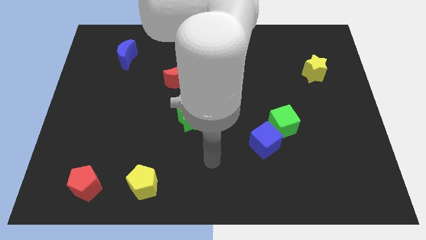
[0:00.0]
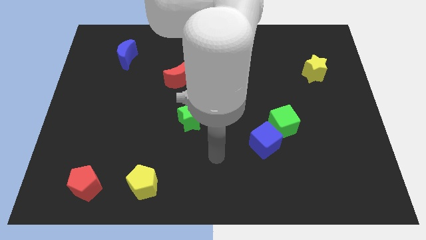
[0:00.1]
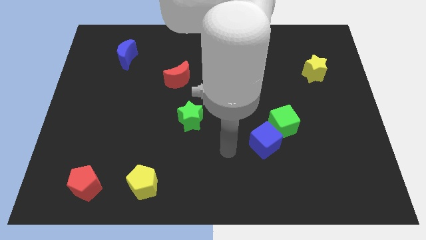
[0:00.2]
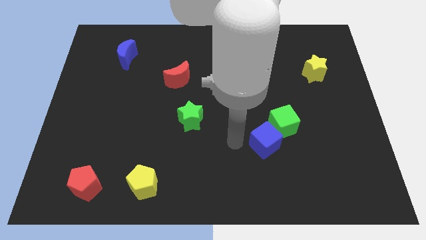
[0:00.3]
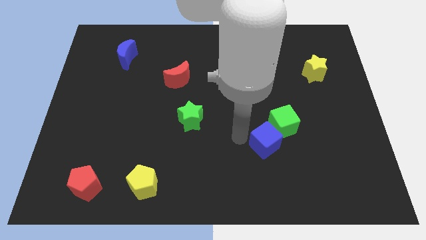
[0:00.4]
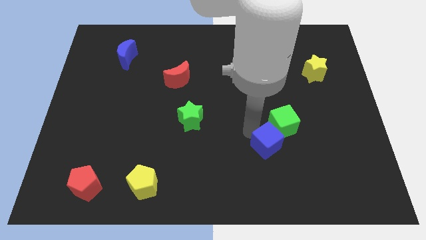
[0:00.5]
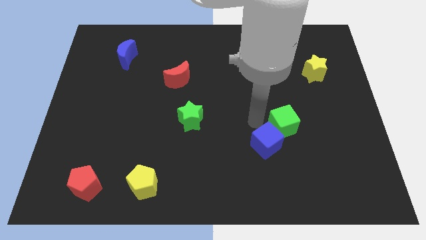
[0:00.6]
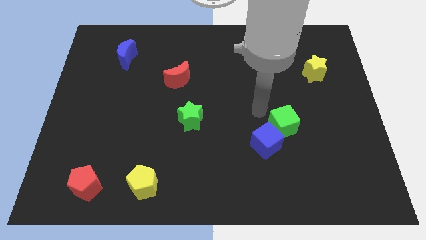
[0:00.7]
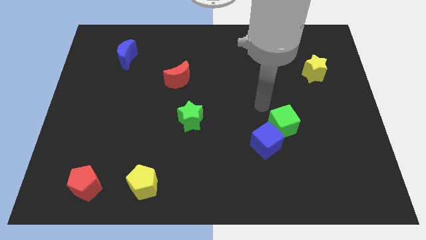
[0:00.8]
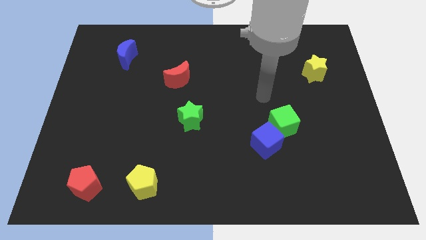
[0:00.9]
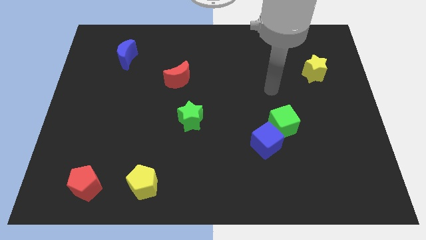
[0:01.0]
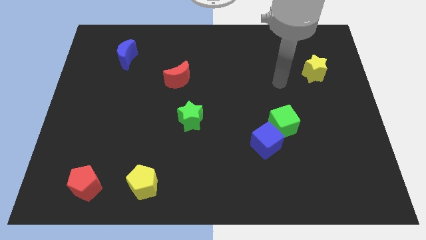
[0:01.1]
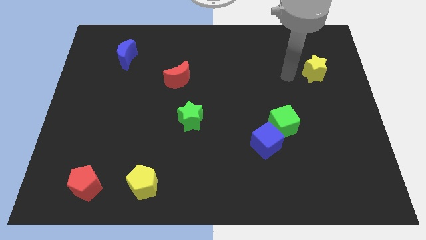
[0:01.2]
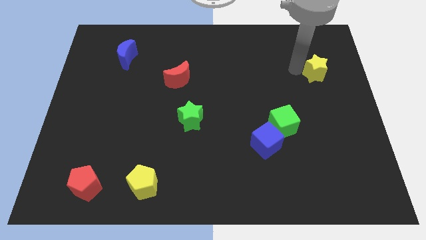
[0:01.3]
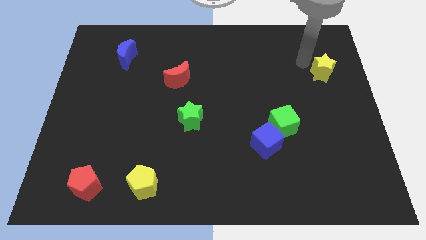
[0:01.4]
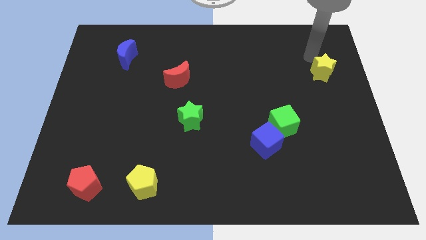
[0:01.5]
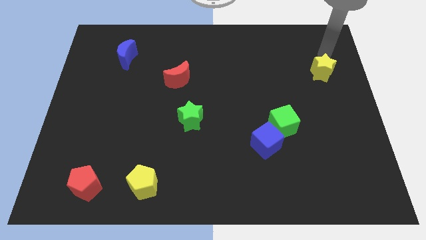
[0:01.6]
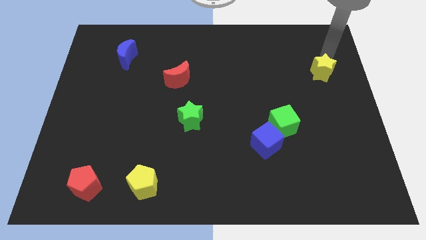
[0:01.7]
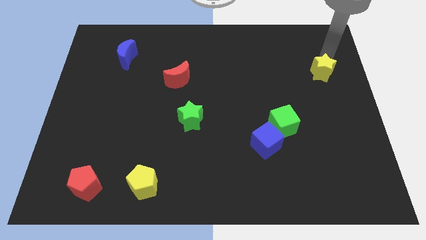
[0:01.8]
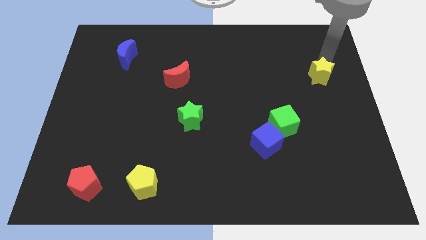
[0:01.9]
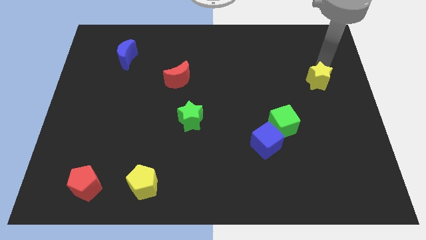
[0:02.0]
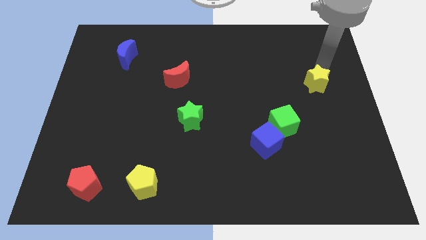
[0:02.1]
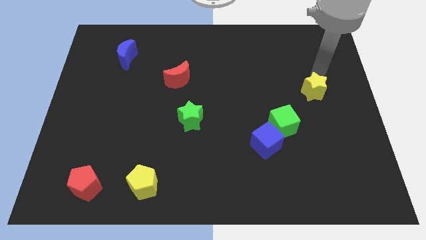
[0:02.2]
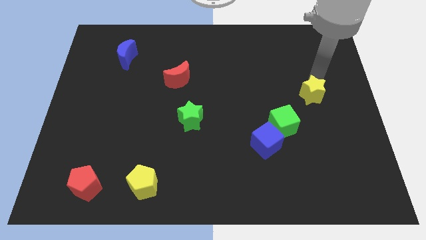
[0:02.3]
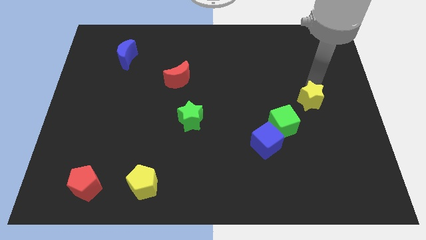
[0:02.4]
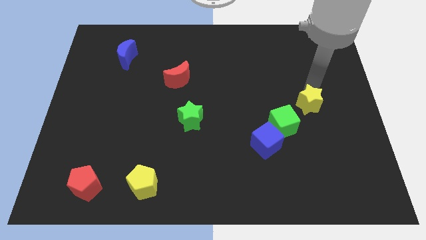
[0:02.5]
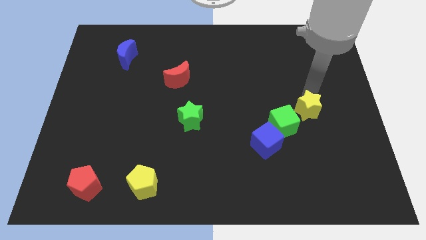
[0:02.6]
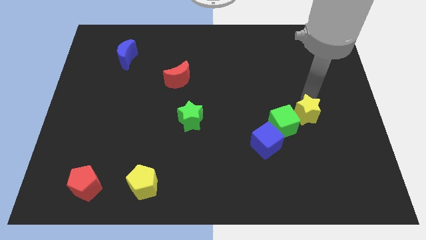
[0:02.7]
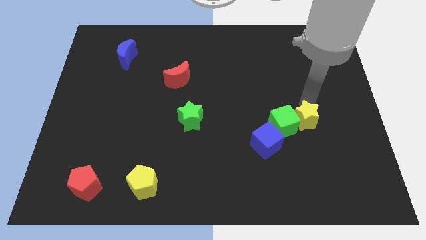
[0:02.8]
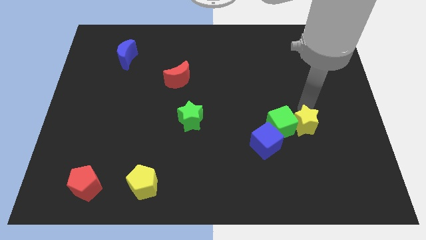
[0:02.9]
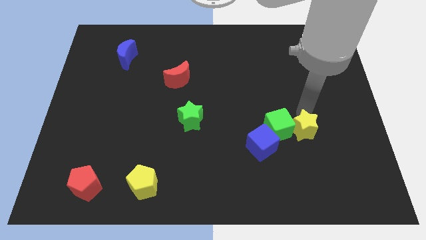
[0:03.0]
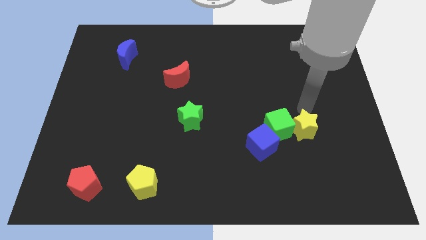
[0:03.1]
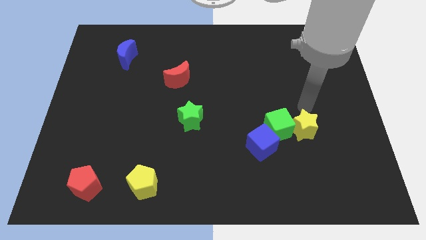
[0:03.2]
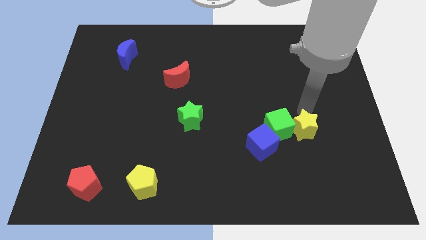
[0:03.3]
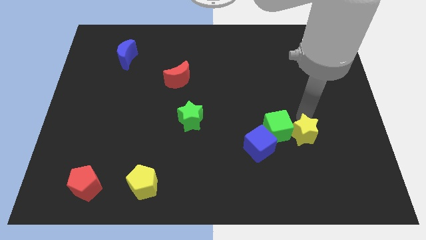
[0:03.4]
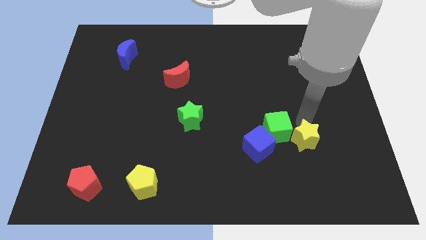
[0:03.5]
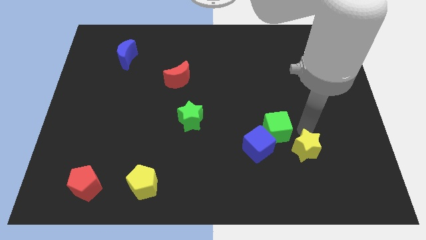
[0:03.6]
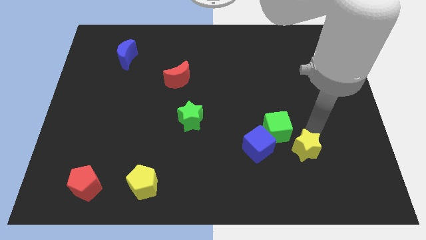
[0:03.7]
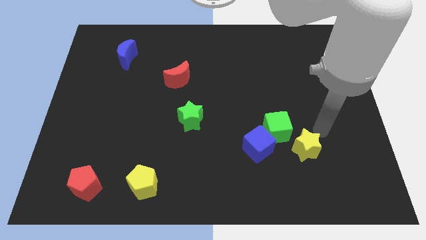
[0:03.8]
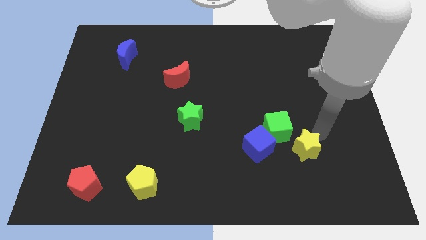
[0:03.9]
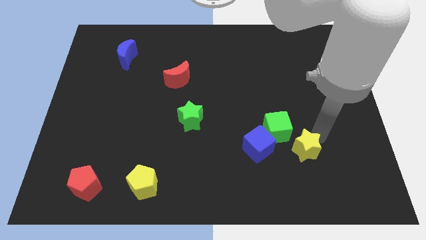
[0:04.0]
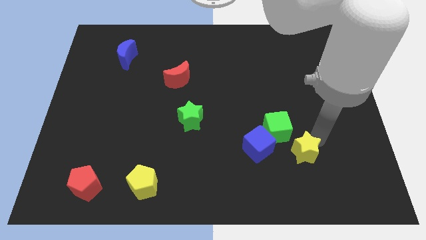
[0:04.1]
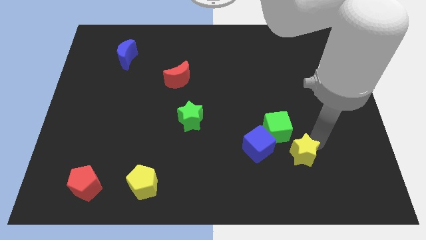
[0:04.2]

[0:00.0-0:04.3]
push the yellow star to the bottom side of the green cube

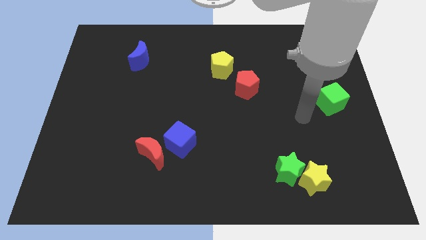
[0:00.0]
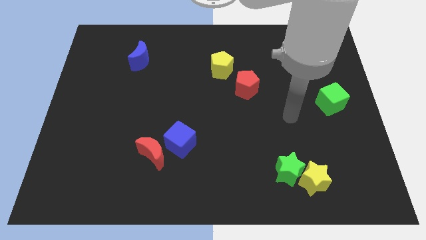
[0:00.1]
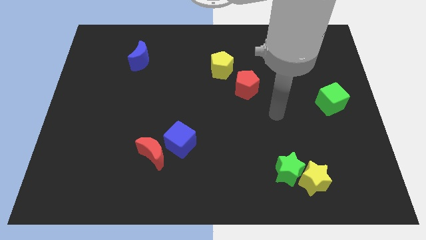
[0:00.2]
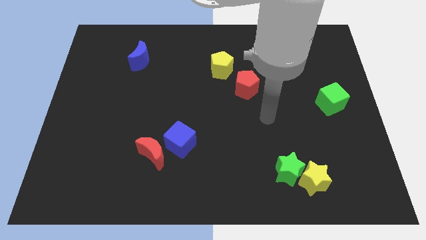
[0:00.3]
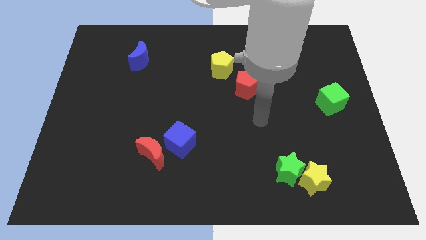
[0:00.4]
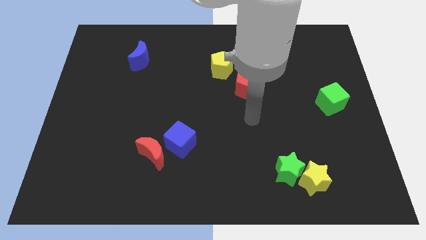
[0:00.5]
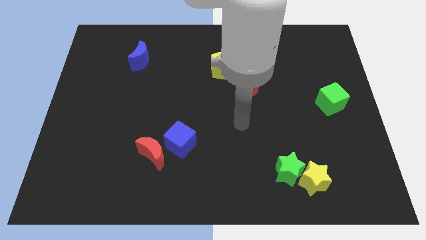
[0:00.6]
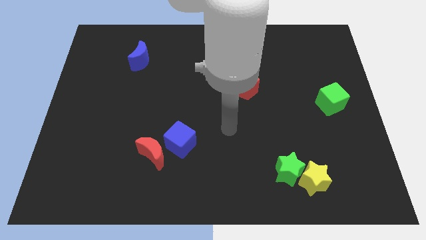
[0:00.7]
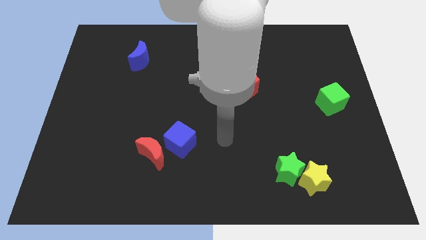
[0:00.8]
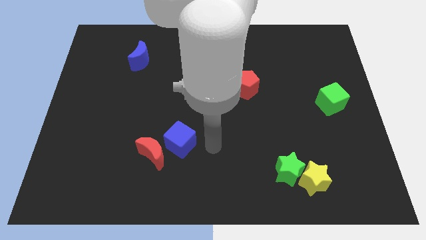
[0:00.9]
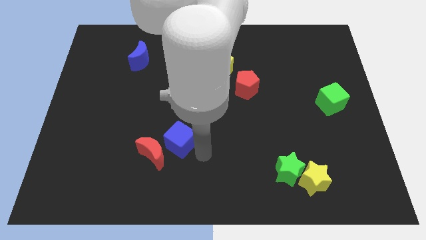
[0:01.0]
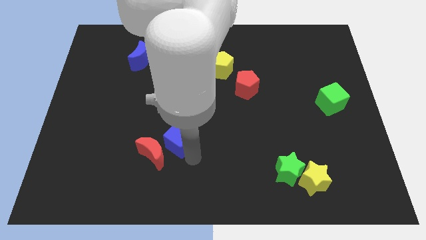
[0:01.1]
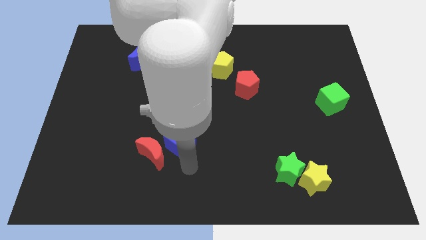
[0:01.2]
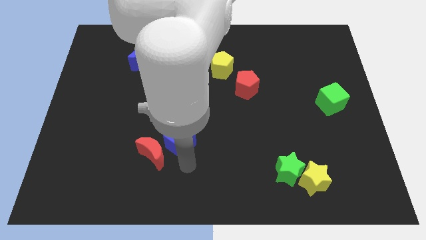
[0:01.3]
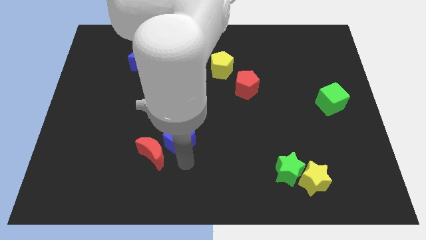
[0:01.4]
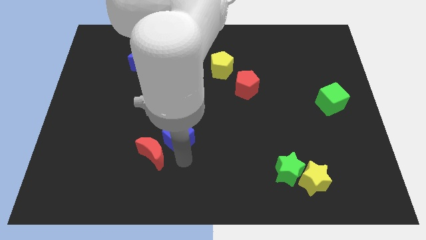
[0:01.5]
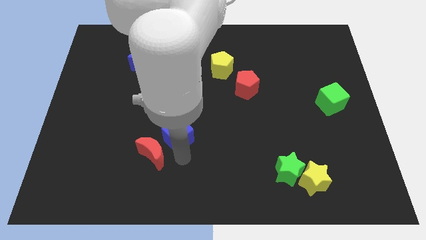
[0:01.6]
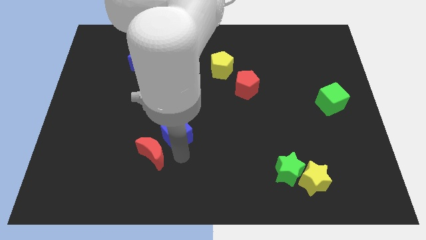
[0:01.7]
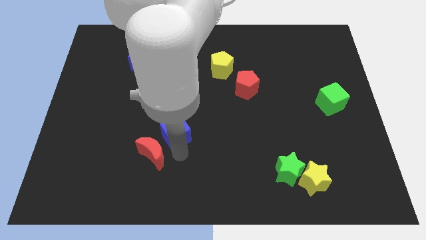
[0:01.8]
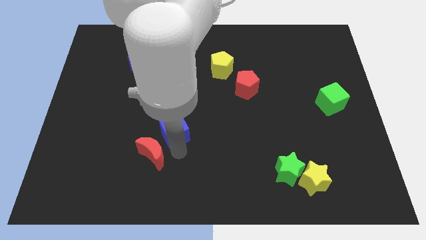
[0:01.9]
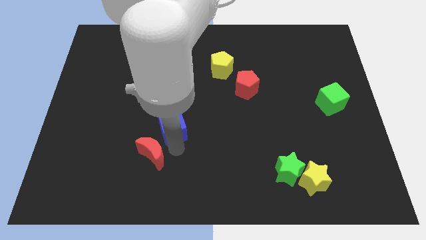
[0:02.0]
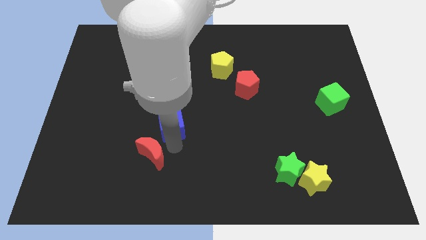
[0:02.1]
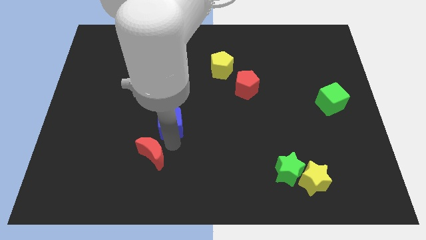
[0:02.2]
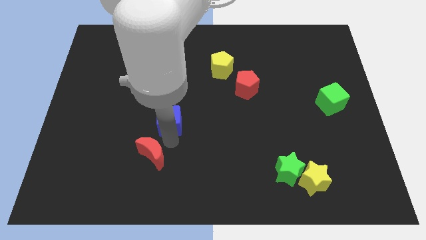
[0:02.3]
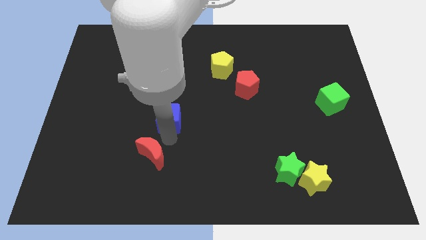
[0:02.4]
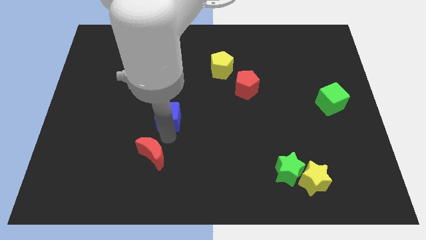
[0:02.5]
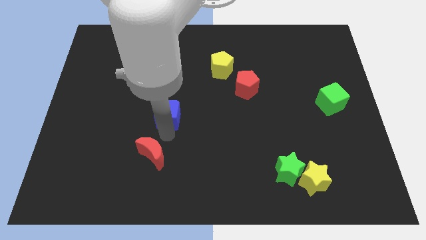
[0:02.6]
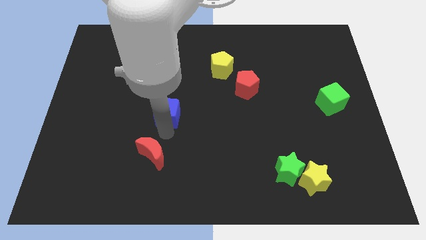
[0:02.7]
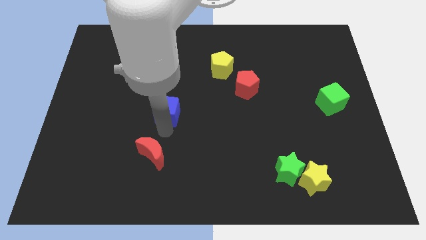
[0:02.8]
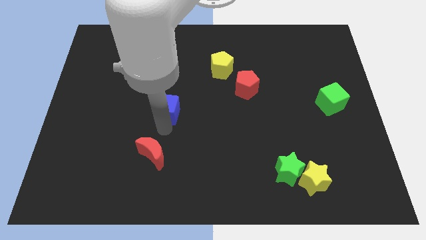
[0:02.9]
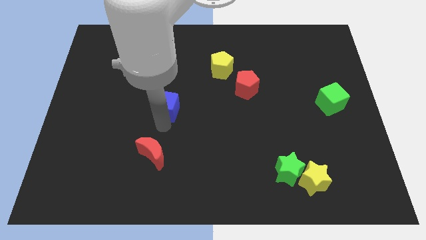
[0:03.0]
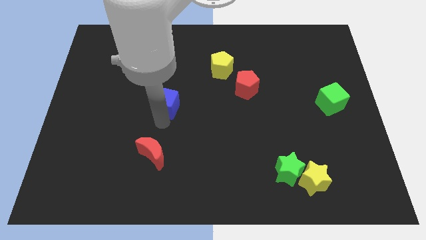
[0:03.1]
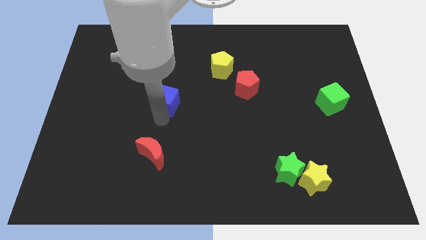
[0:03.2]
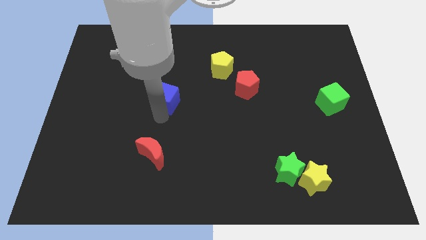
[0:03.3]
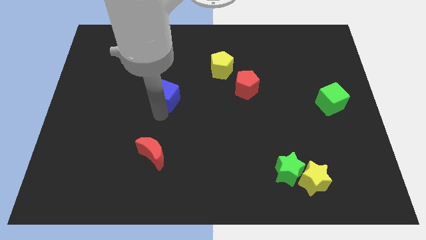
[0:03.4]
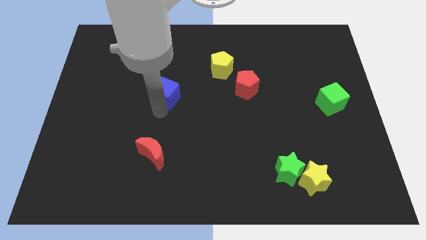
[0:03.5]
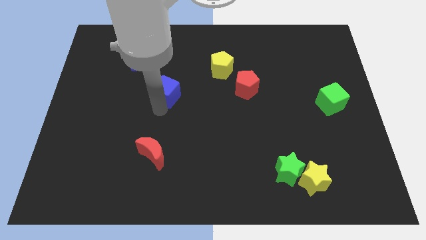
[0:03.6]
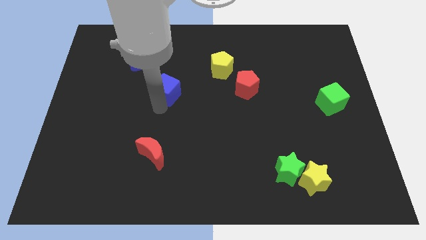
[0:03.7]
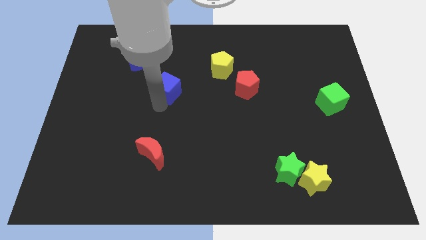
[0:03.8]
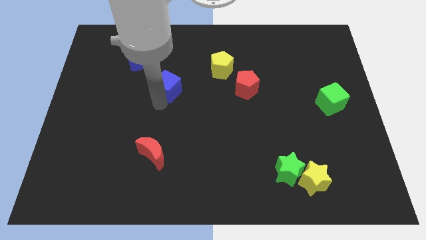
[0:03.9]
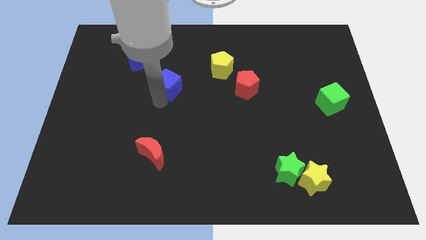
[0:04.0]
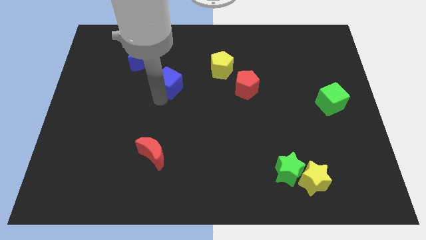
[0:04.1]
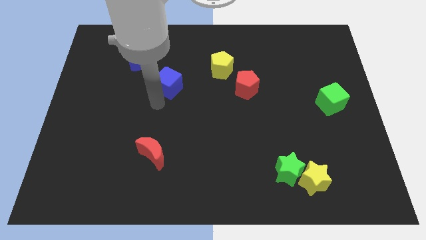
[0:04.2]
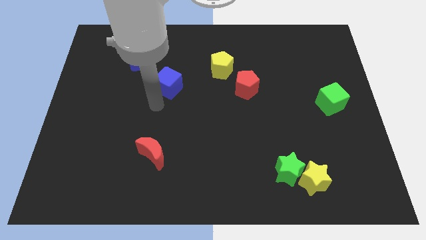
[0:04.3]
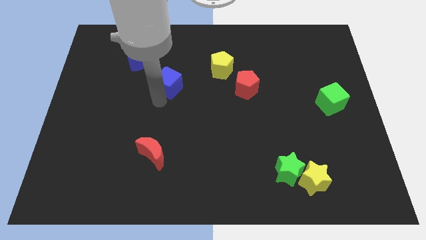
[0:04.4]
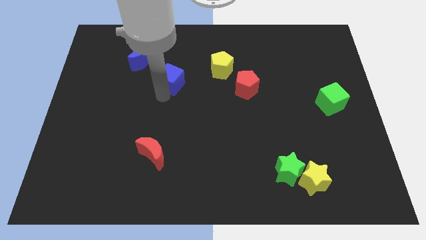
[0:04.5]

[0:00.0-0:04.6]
slide the blue cube left of the yellow pentagon
